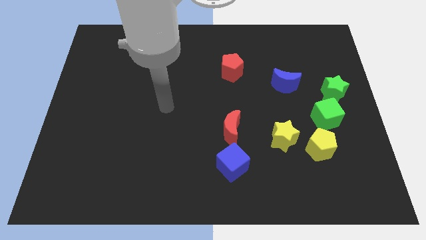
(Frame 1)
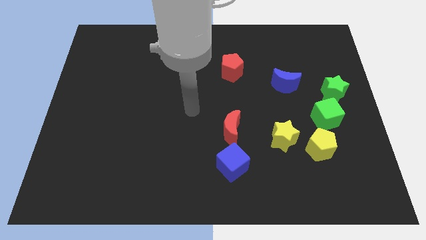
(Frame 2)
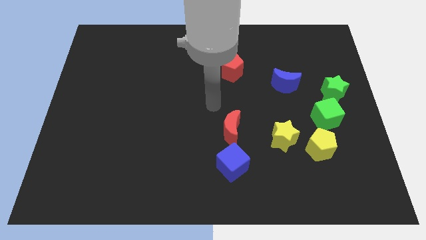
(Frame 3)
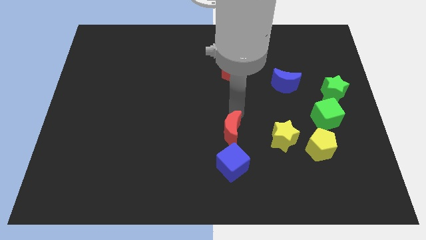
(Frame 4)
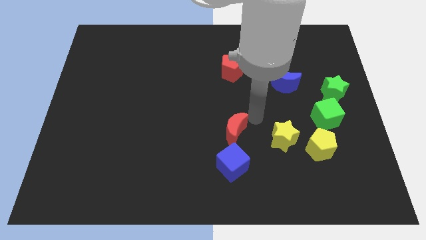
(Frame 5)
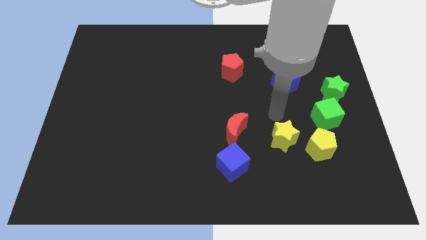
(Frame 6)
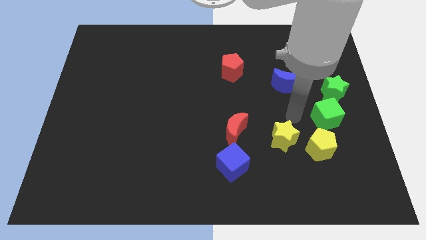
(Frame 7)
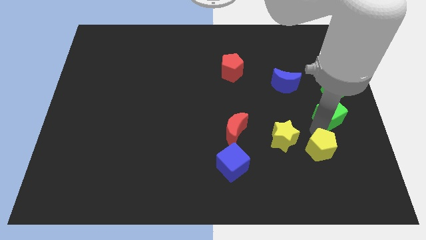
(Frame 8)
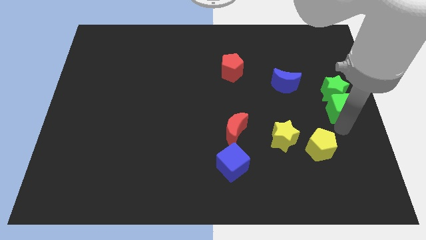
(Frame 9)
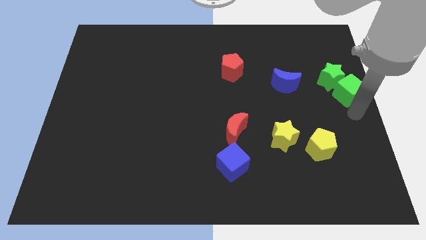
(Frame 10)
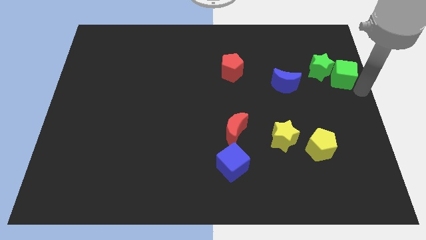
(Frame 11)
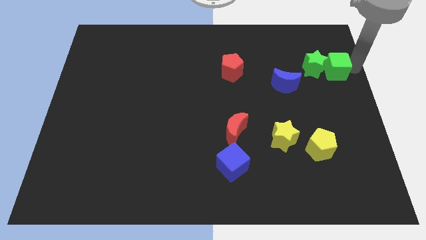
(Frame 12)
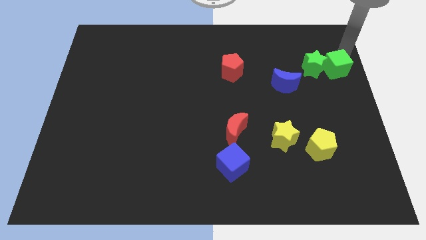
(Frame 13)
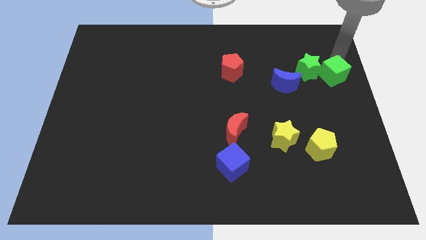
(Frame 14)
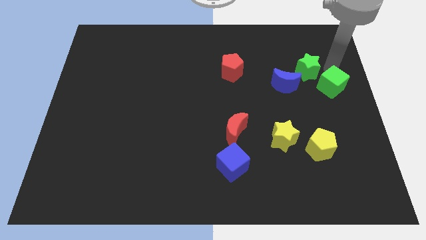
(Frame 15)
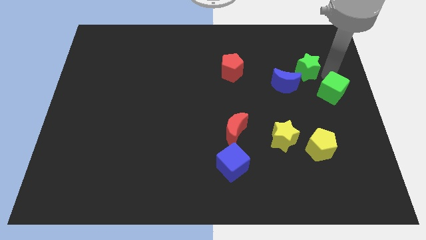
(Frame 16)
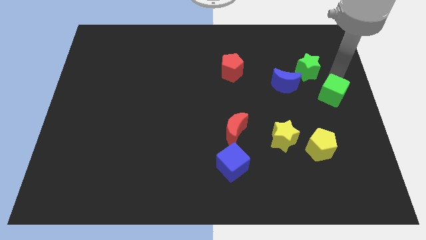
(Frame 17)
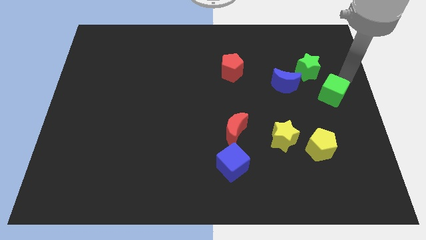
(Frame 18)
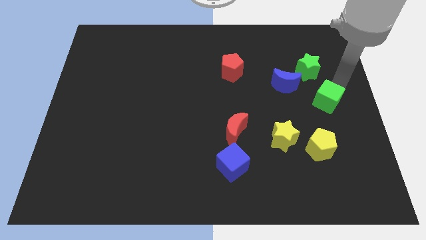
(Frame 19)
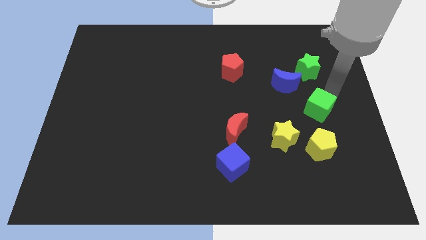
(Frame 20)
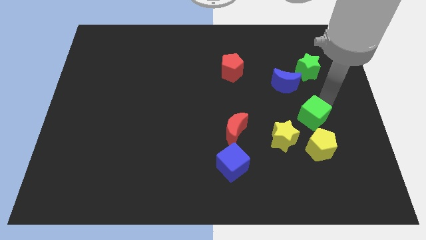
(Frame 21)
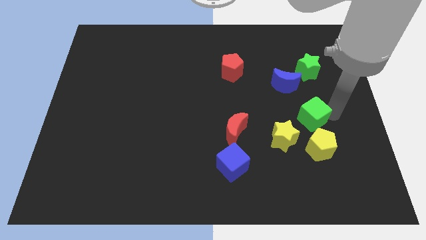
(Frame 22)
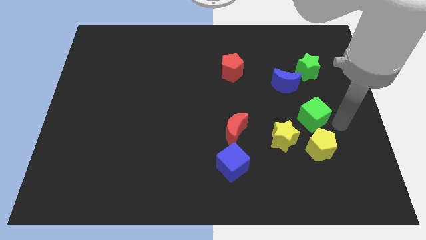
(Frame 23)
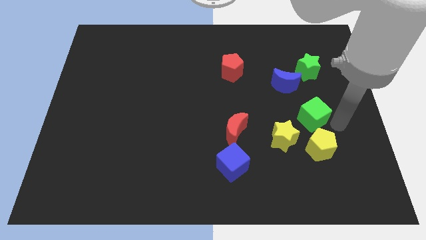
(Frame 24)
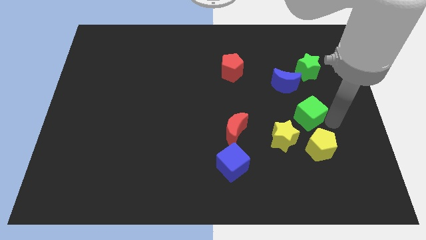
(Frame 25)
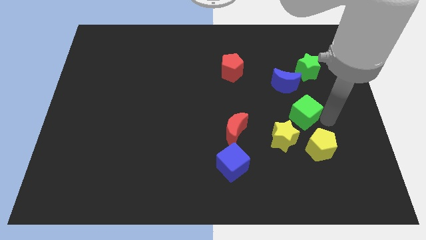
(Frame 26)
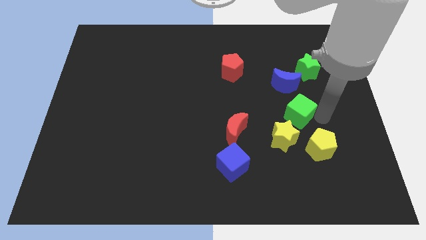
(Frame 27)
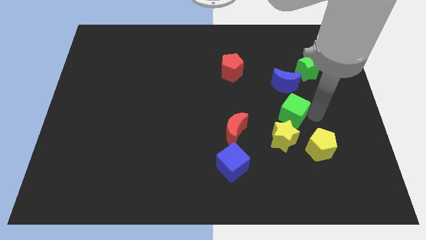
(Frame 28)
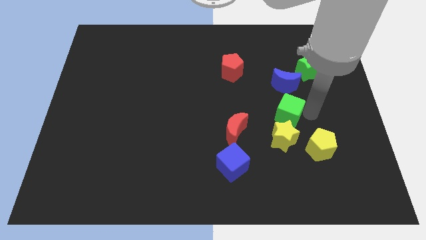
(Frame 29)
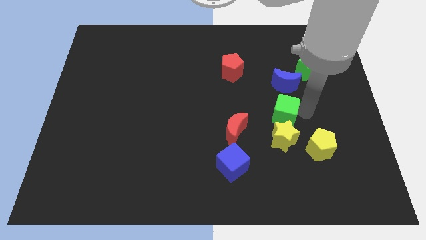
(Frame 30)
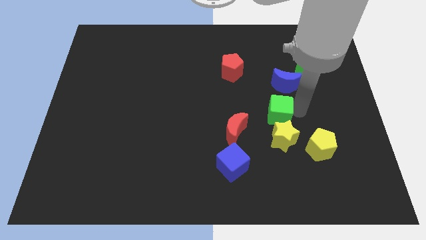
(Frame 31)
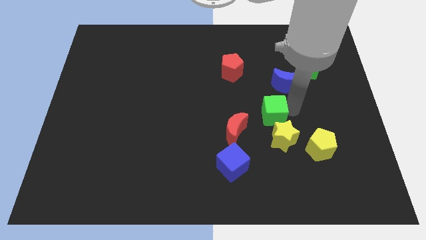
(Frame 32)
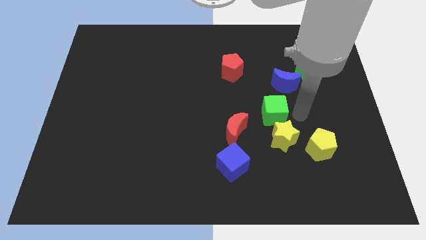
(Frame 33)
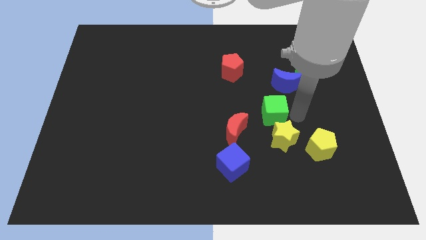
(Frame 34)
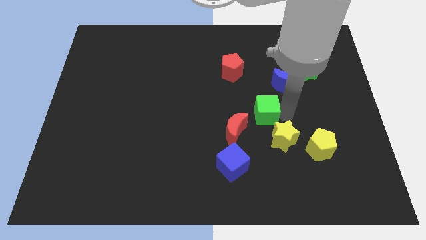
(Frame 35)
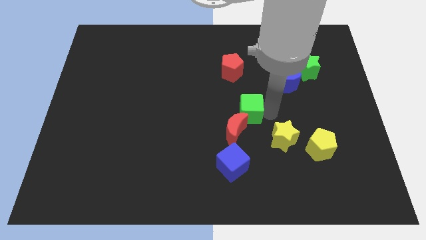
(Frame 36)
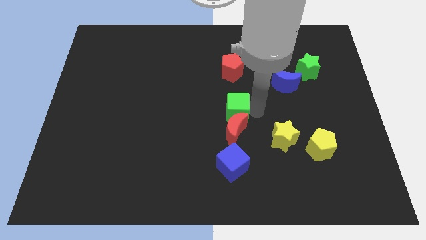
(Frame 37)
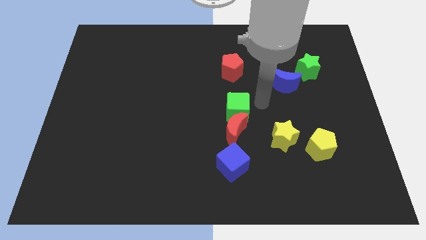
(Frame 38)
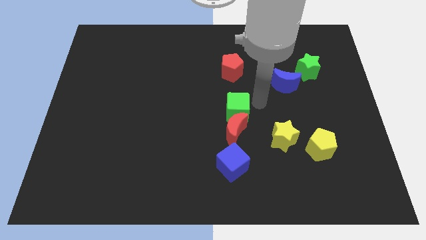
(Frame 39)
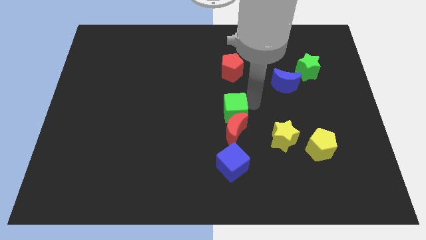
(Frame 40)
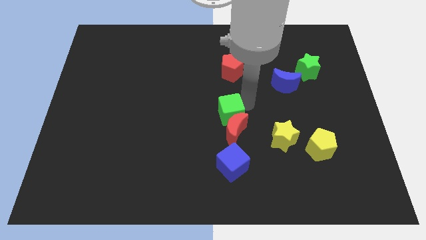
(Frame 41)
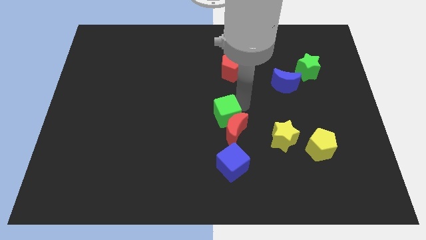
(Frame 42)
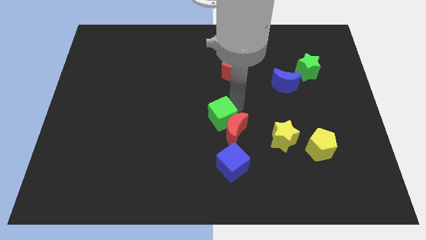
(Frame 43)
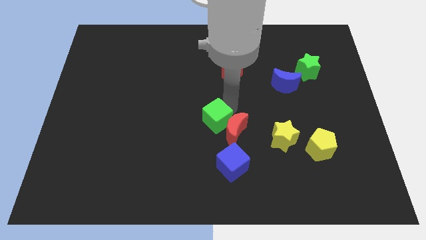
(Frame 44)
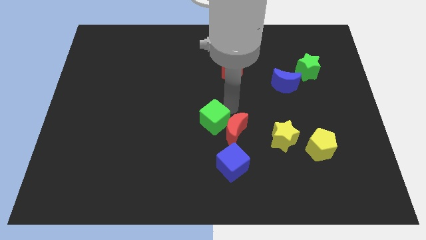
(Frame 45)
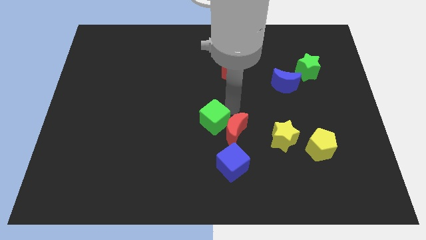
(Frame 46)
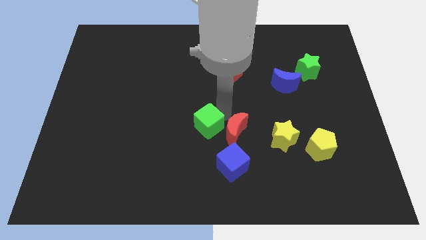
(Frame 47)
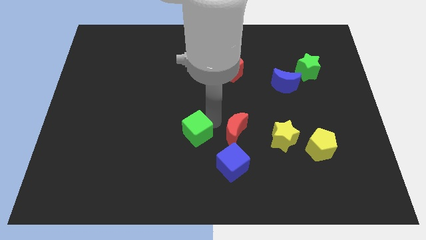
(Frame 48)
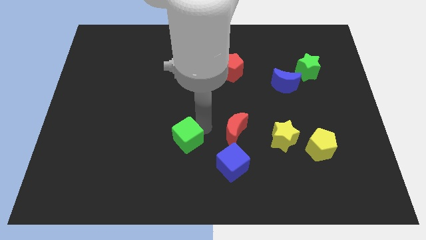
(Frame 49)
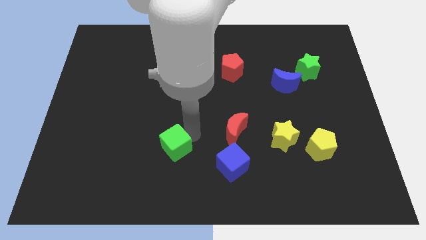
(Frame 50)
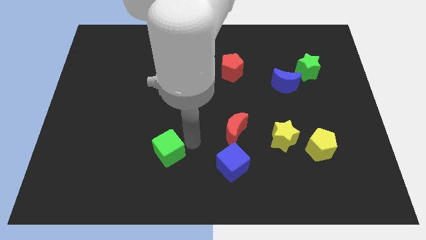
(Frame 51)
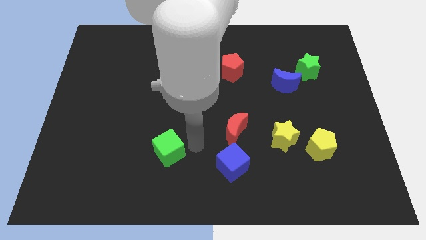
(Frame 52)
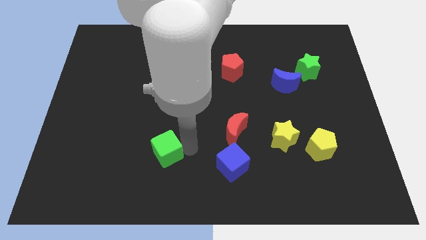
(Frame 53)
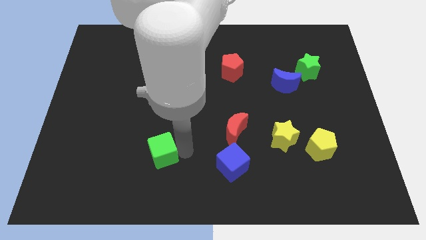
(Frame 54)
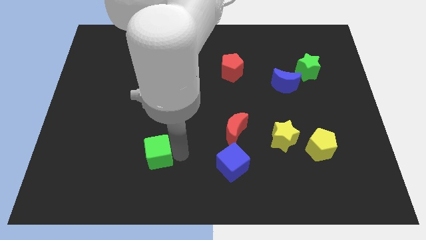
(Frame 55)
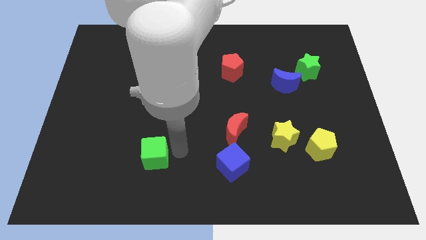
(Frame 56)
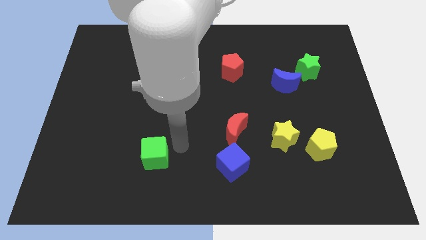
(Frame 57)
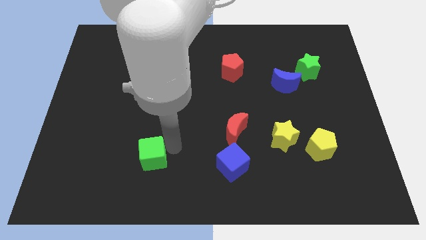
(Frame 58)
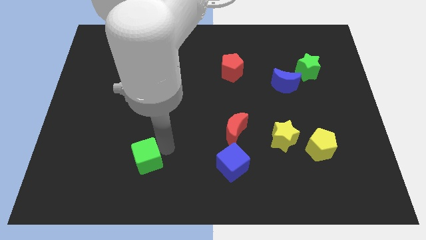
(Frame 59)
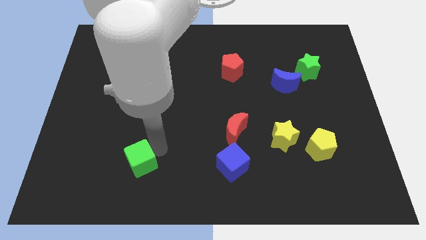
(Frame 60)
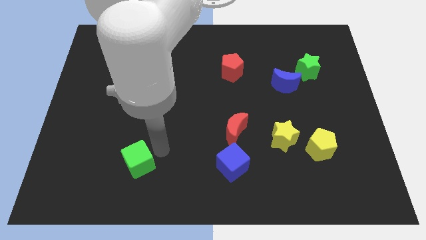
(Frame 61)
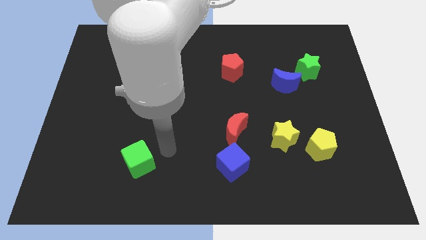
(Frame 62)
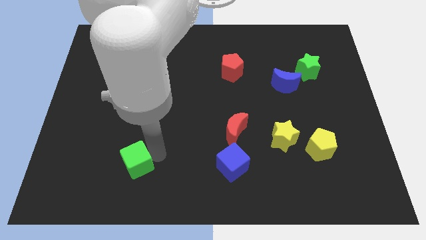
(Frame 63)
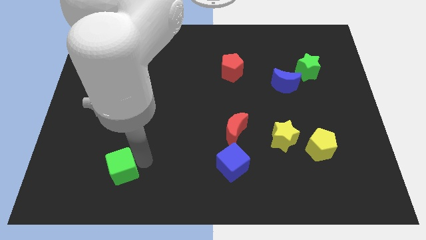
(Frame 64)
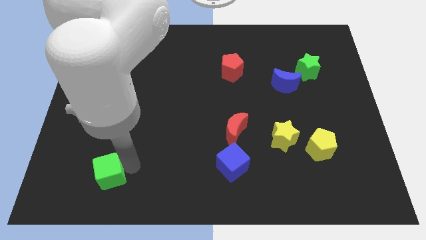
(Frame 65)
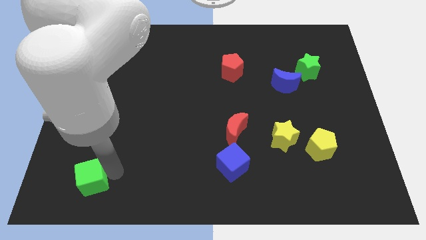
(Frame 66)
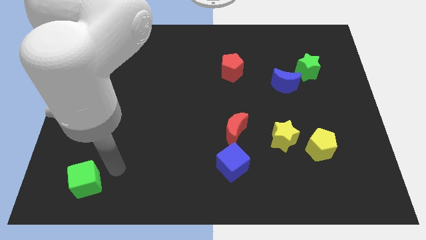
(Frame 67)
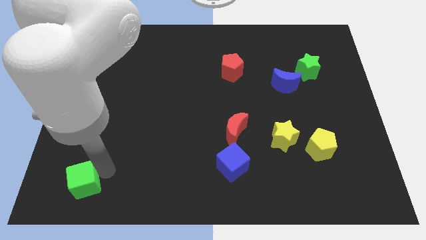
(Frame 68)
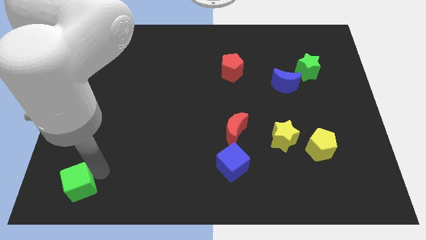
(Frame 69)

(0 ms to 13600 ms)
slide the green cube to the lower left corner
